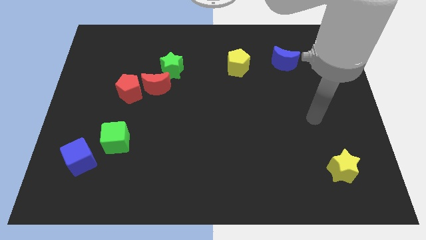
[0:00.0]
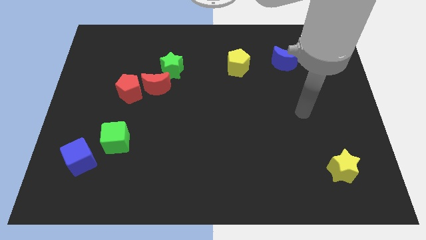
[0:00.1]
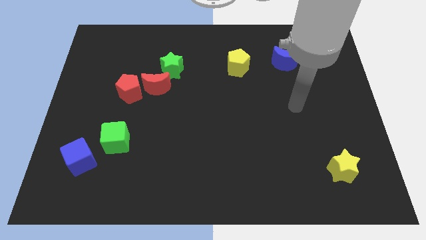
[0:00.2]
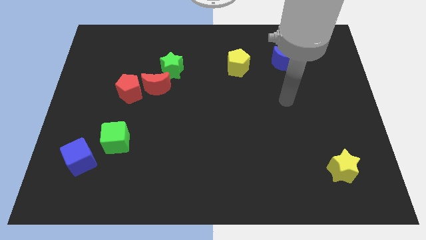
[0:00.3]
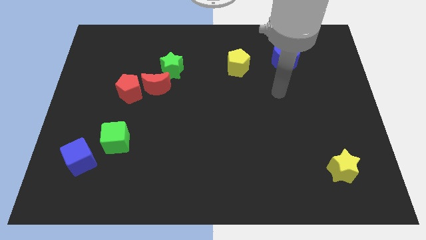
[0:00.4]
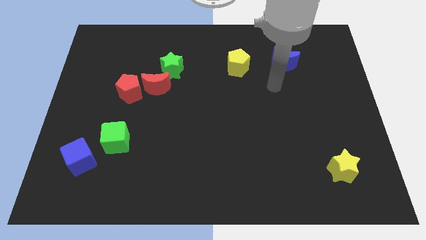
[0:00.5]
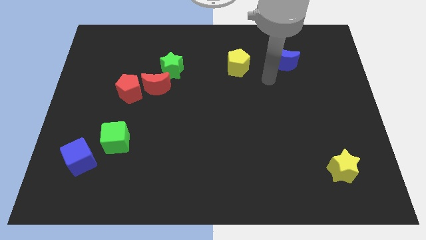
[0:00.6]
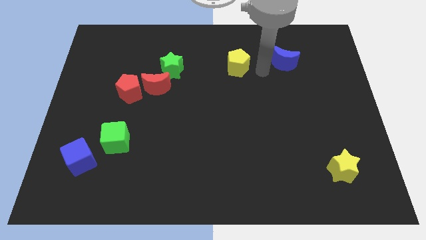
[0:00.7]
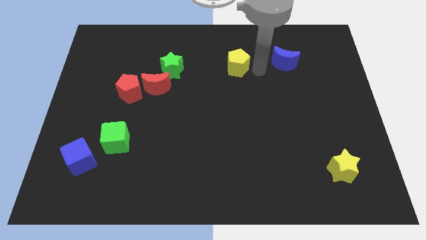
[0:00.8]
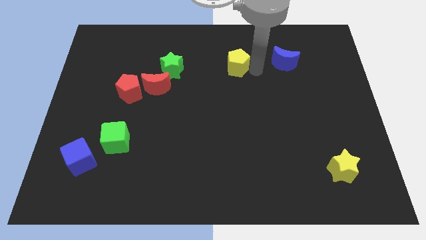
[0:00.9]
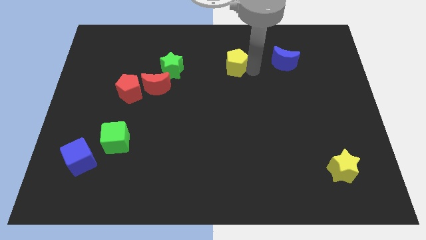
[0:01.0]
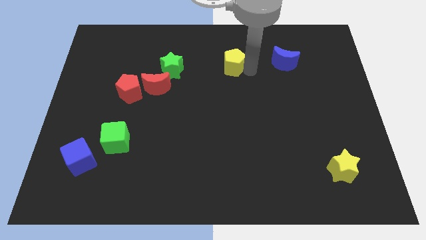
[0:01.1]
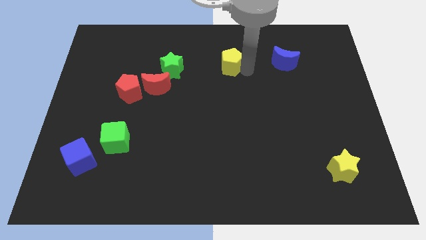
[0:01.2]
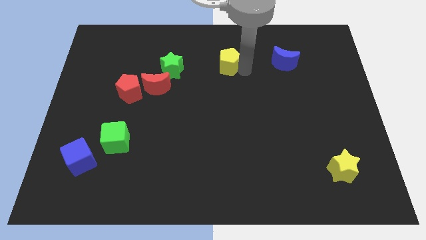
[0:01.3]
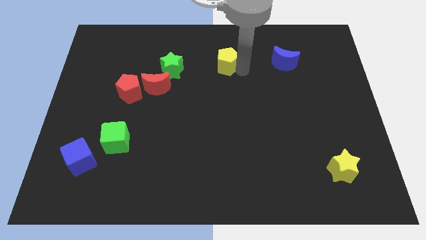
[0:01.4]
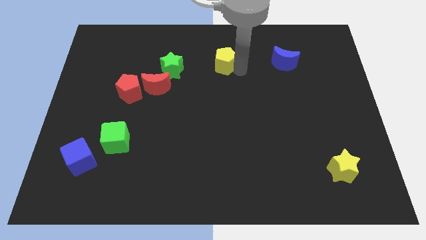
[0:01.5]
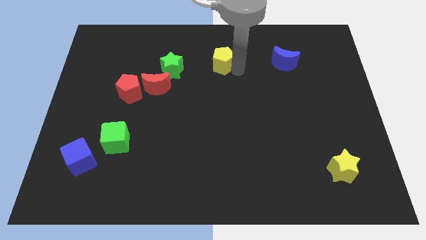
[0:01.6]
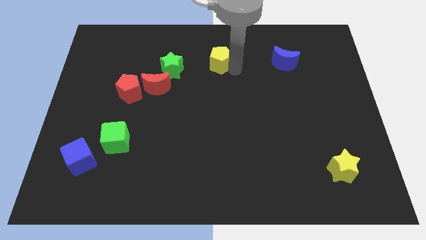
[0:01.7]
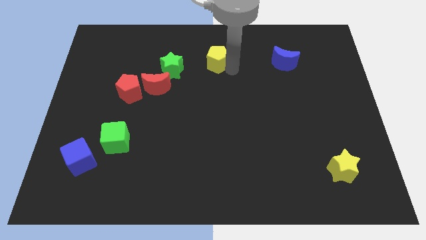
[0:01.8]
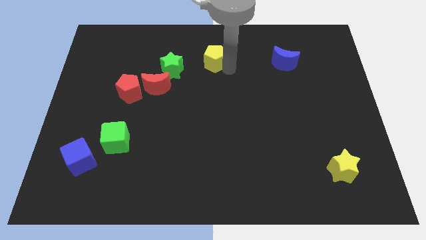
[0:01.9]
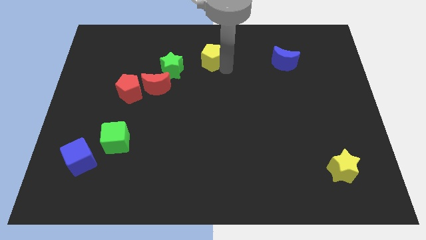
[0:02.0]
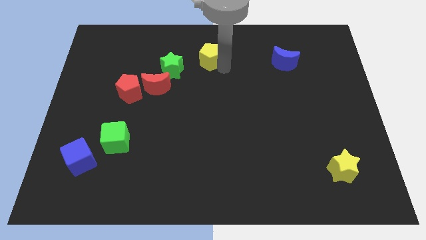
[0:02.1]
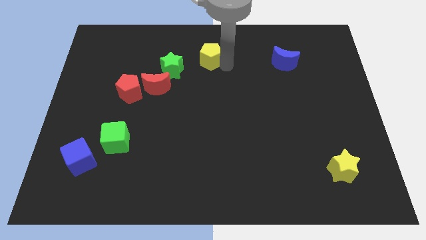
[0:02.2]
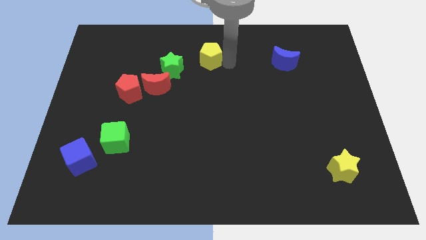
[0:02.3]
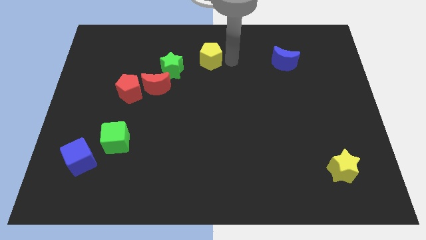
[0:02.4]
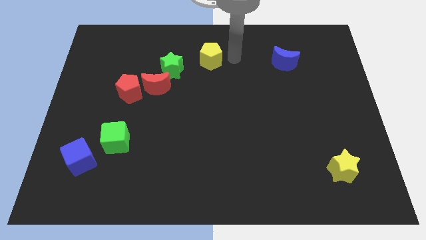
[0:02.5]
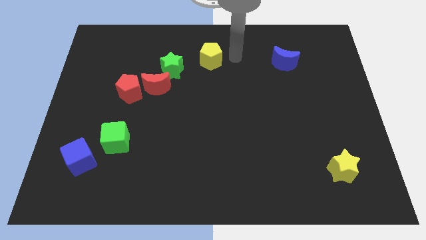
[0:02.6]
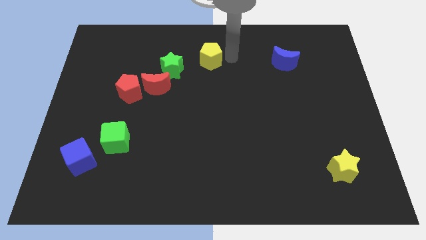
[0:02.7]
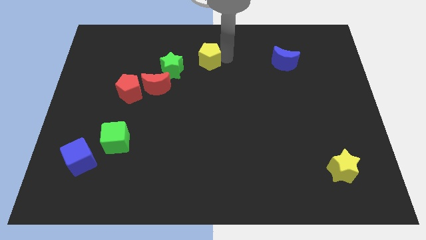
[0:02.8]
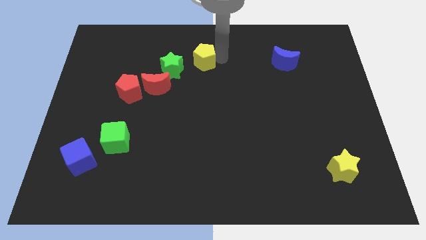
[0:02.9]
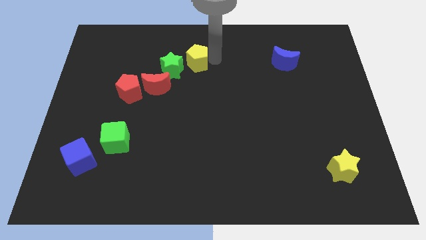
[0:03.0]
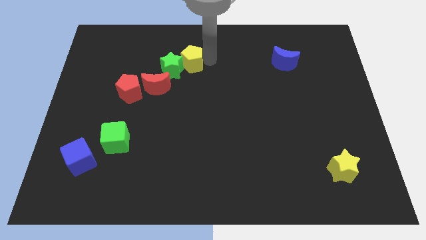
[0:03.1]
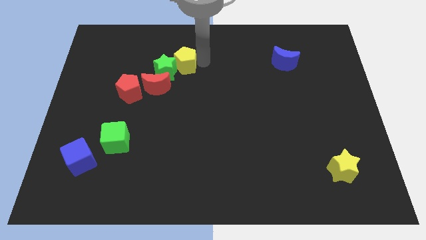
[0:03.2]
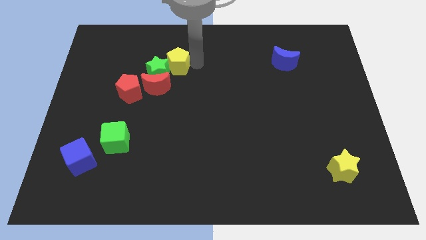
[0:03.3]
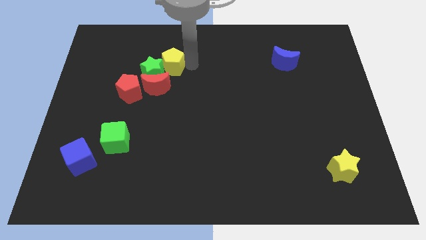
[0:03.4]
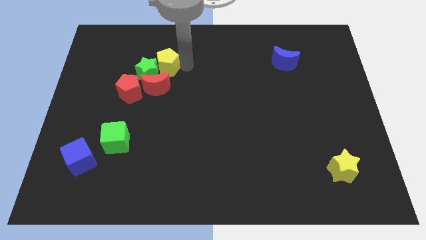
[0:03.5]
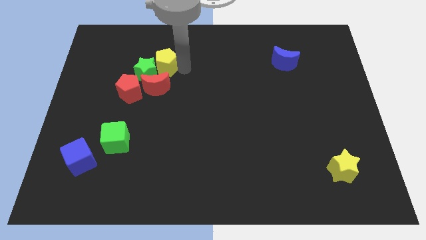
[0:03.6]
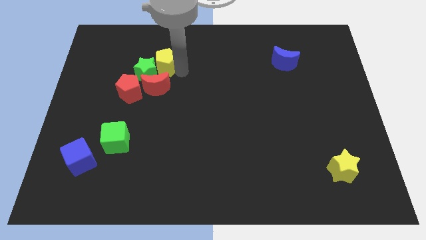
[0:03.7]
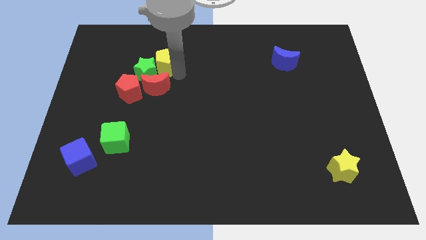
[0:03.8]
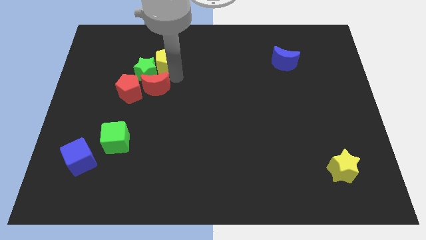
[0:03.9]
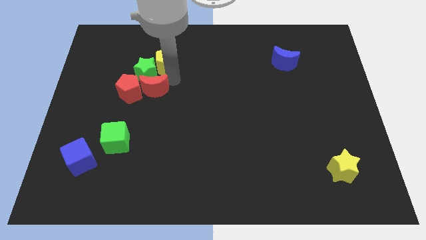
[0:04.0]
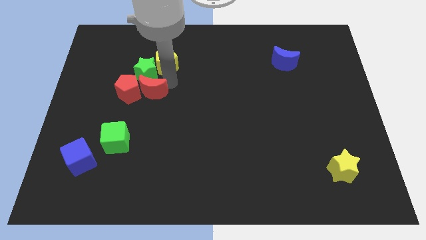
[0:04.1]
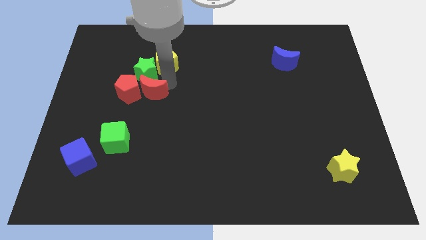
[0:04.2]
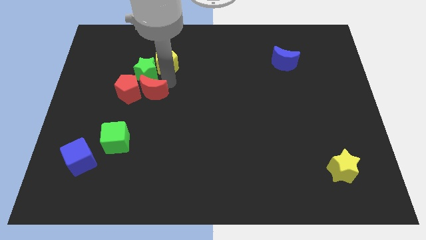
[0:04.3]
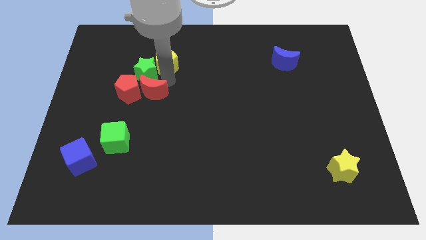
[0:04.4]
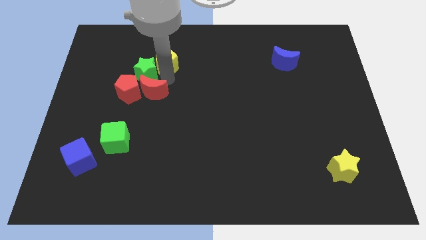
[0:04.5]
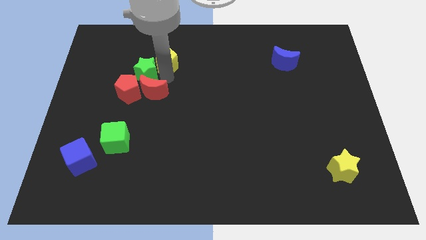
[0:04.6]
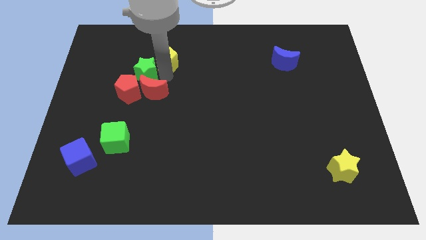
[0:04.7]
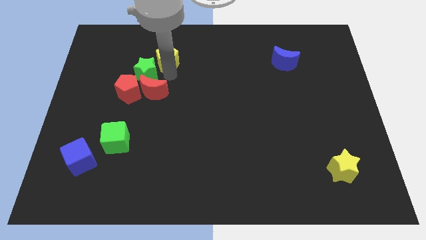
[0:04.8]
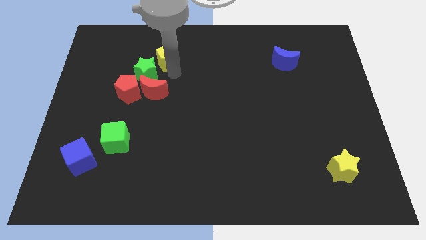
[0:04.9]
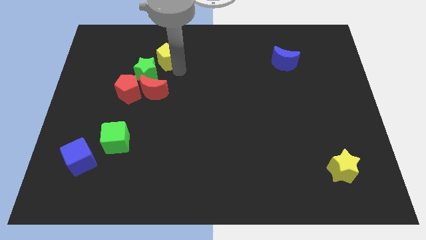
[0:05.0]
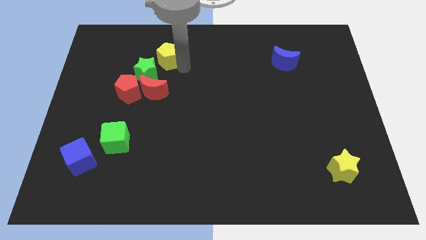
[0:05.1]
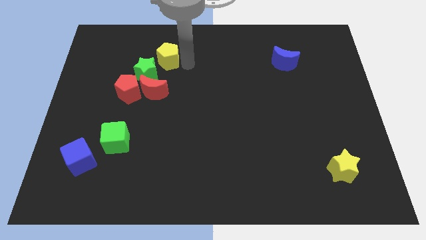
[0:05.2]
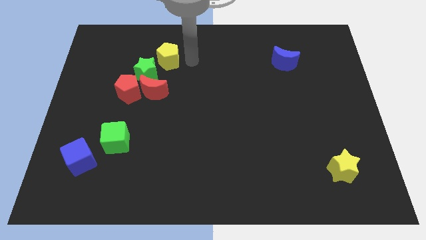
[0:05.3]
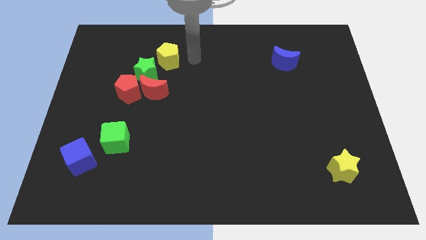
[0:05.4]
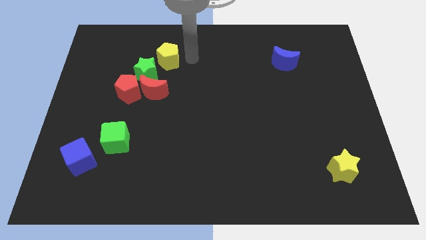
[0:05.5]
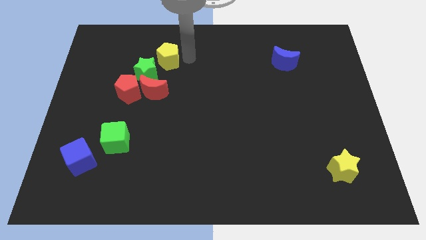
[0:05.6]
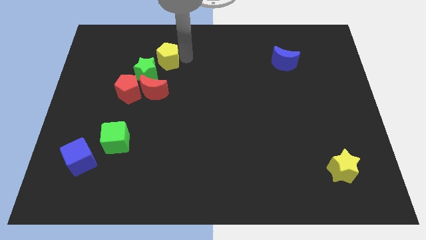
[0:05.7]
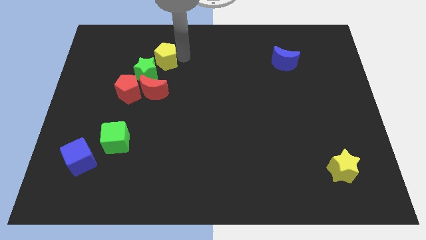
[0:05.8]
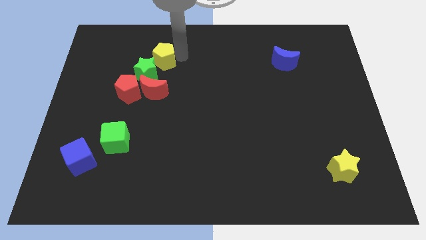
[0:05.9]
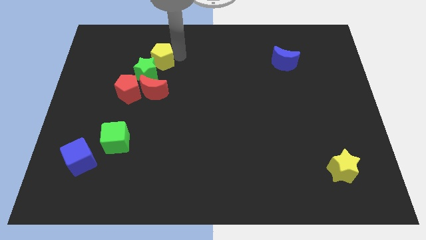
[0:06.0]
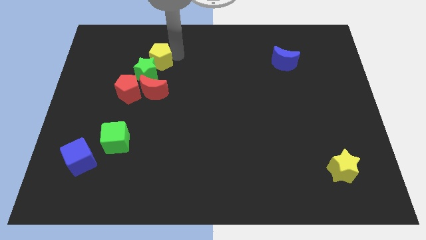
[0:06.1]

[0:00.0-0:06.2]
slide the yellow pentagon left

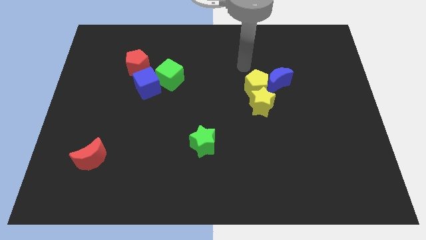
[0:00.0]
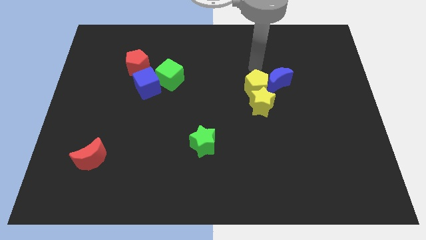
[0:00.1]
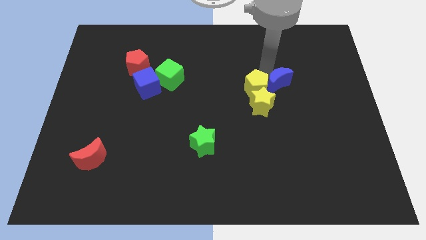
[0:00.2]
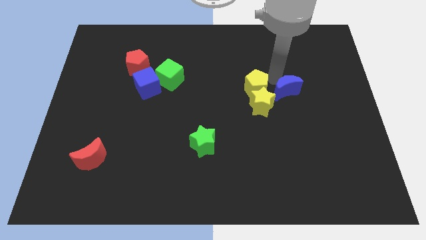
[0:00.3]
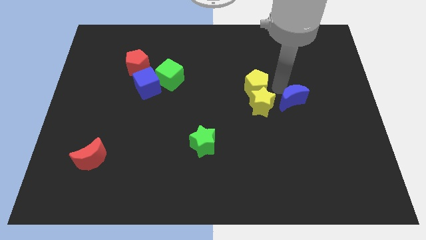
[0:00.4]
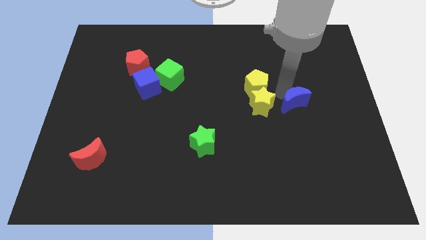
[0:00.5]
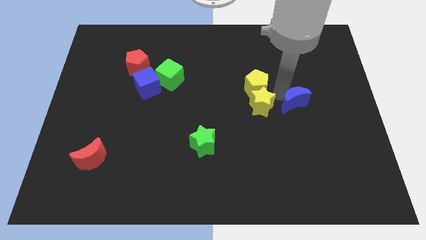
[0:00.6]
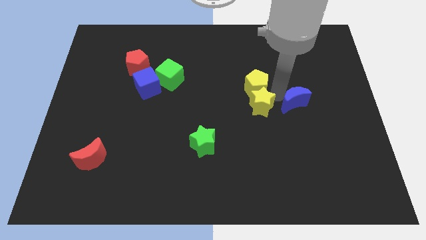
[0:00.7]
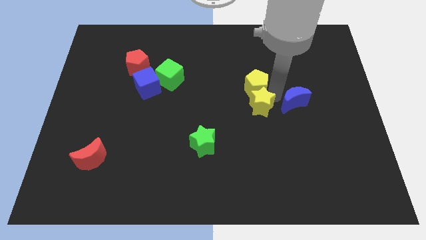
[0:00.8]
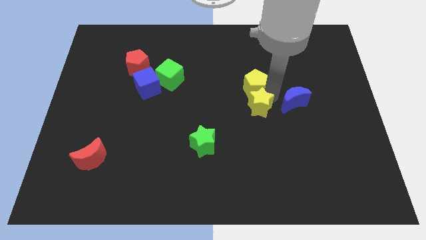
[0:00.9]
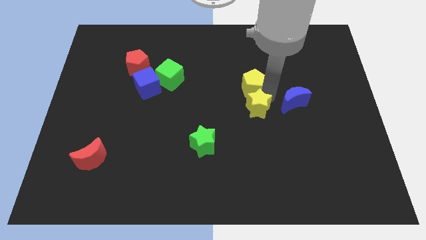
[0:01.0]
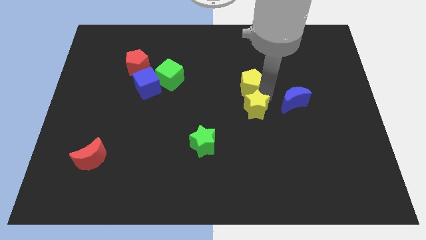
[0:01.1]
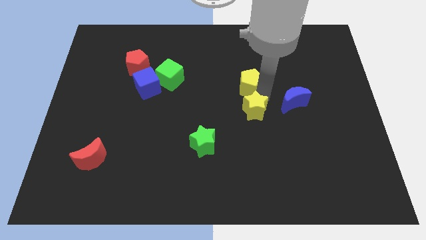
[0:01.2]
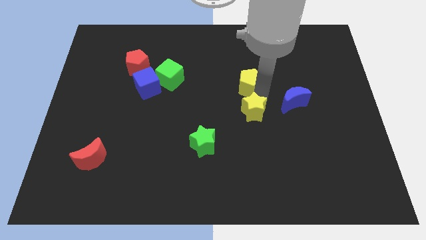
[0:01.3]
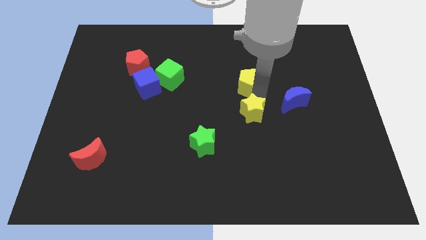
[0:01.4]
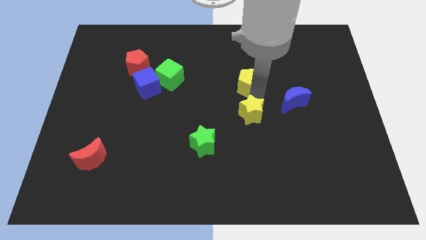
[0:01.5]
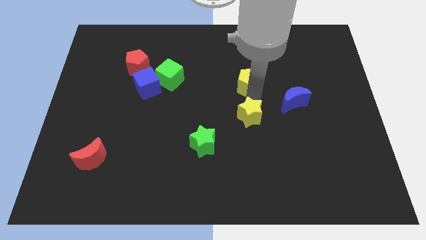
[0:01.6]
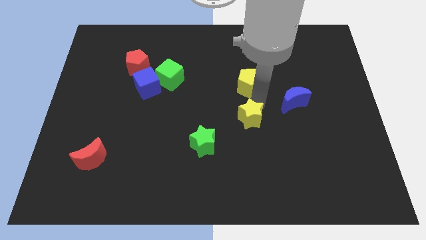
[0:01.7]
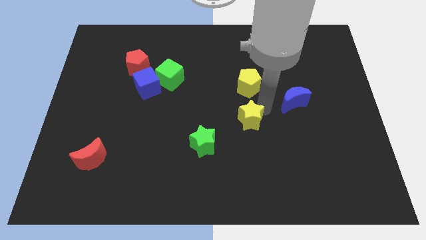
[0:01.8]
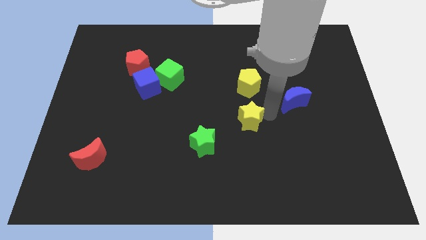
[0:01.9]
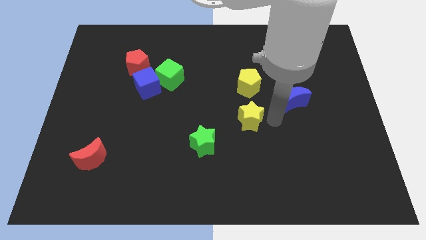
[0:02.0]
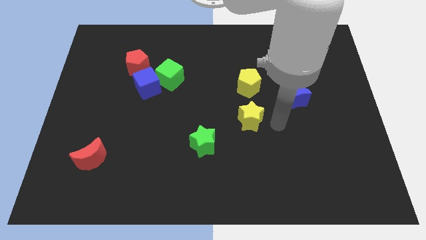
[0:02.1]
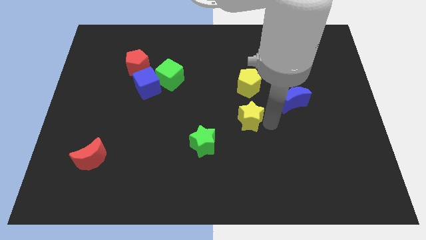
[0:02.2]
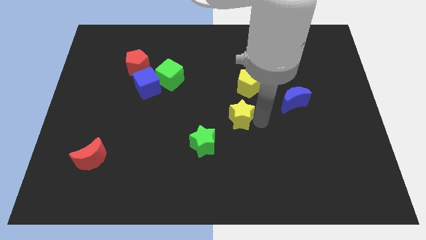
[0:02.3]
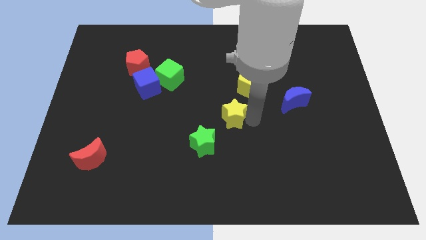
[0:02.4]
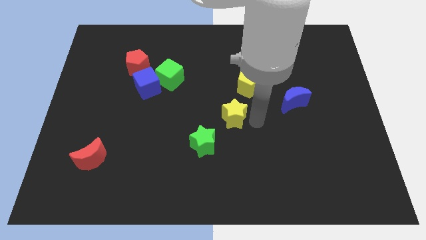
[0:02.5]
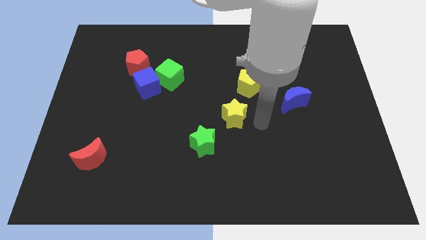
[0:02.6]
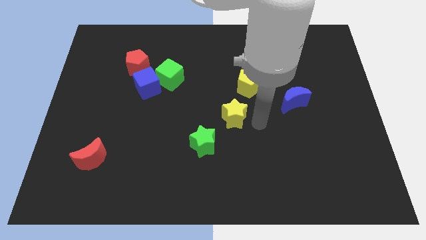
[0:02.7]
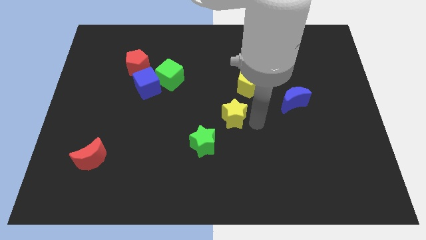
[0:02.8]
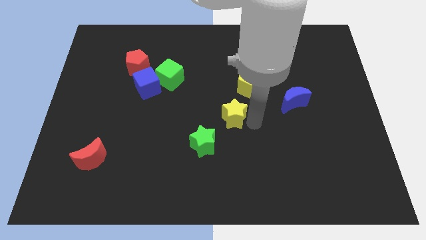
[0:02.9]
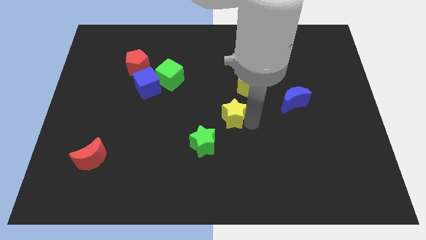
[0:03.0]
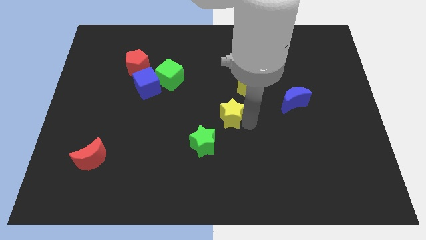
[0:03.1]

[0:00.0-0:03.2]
slightly push the yellow star to the left
